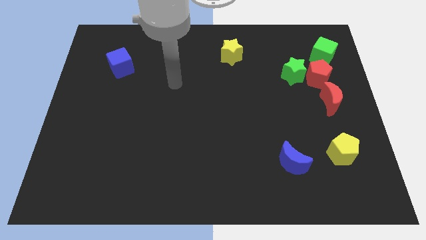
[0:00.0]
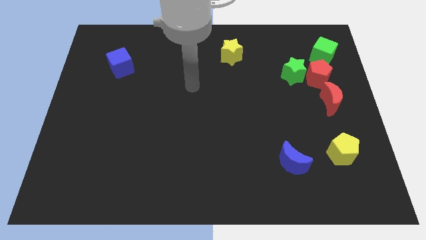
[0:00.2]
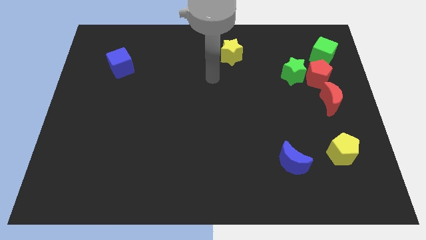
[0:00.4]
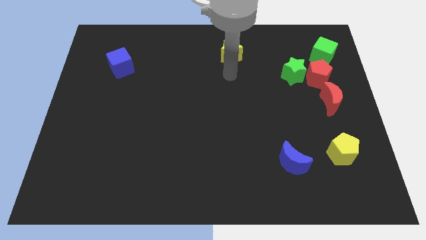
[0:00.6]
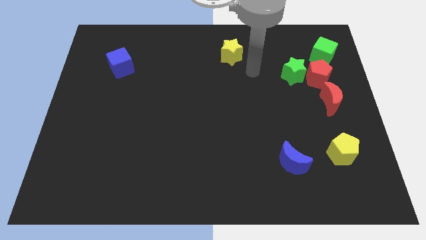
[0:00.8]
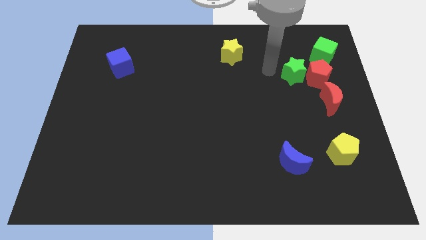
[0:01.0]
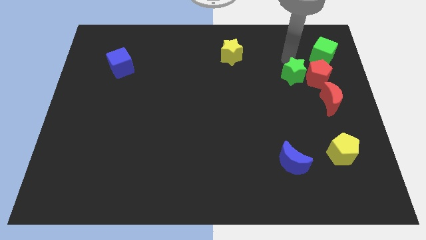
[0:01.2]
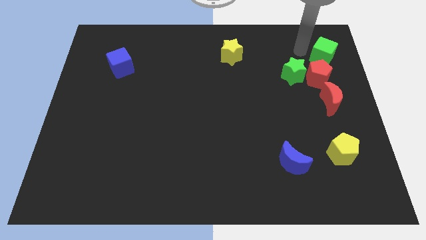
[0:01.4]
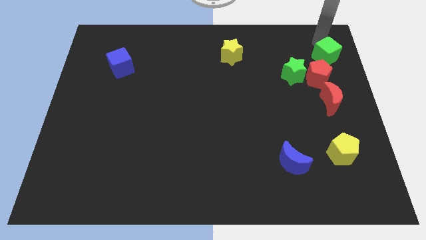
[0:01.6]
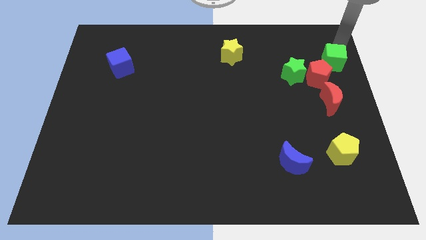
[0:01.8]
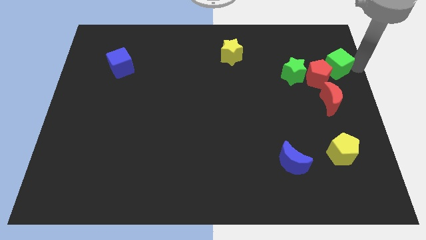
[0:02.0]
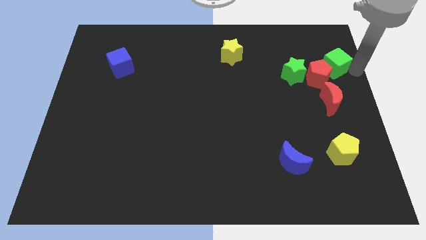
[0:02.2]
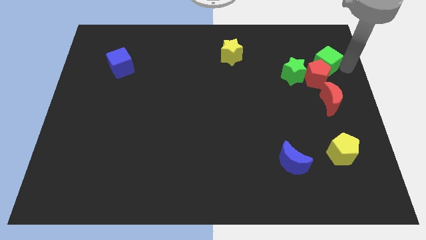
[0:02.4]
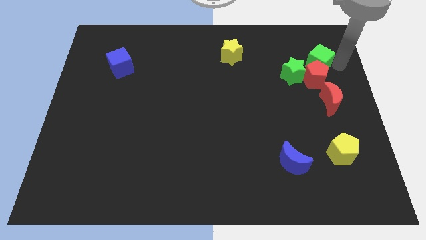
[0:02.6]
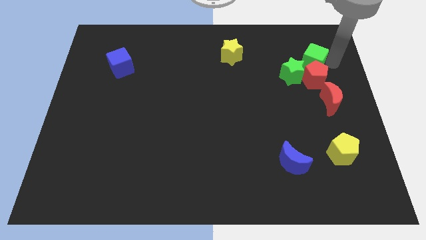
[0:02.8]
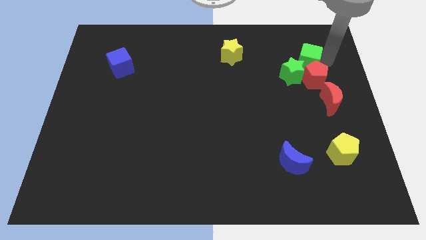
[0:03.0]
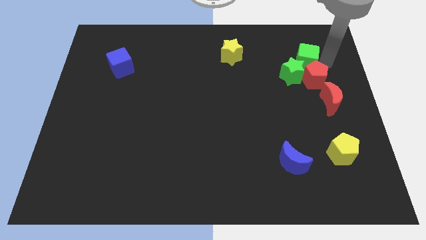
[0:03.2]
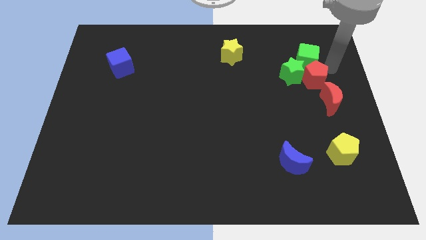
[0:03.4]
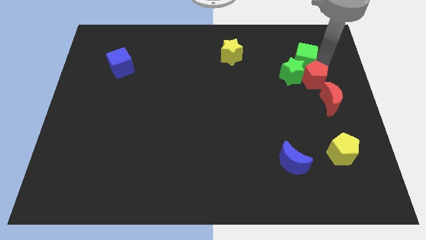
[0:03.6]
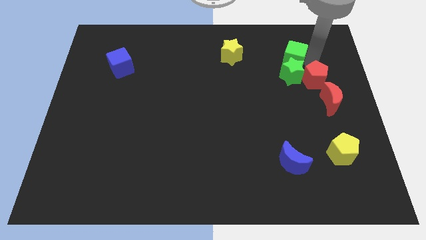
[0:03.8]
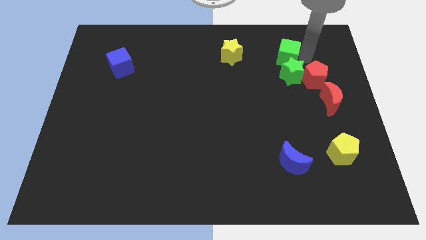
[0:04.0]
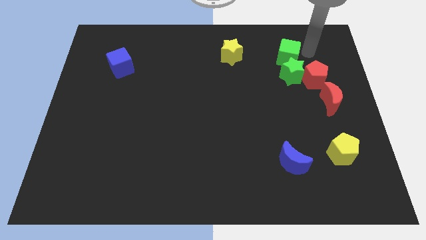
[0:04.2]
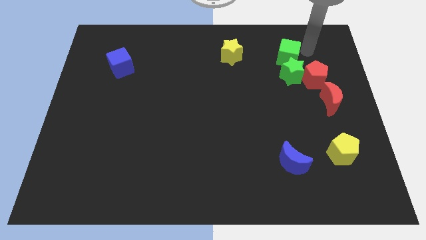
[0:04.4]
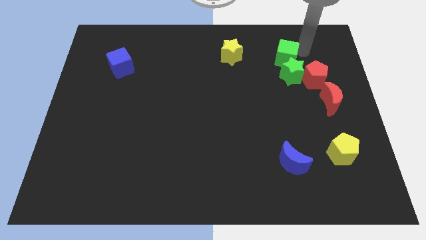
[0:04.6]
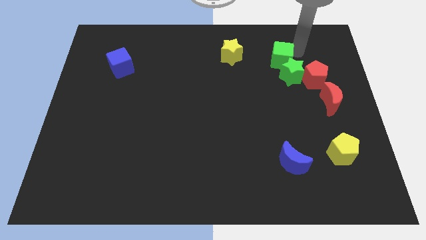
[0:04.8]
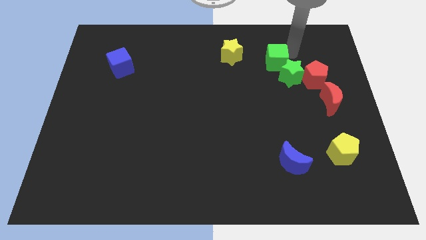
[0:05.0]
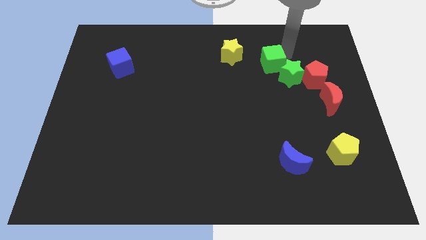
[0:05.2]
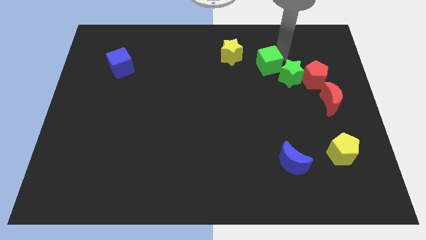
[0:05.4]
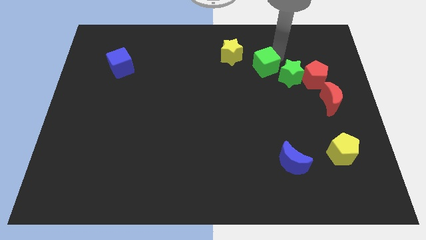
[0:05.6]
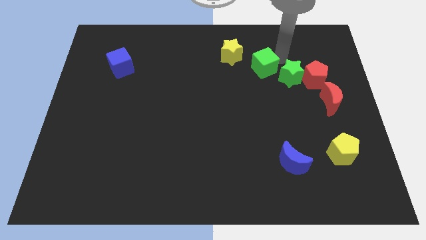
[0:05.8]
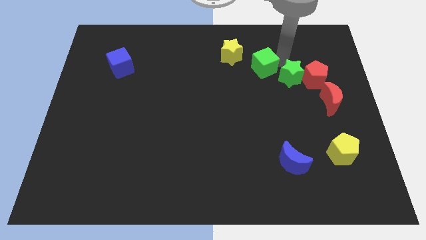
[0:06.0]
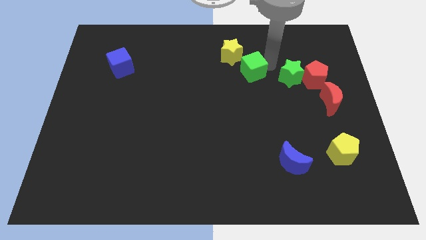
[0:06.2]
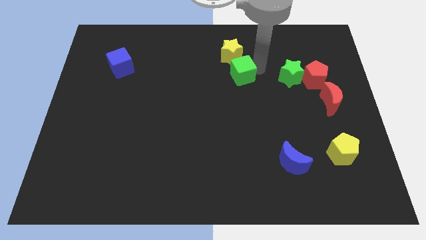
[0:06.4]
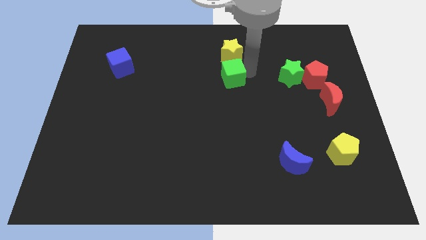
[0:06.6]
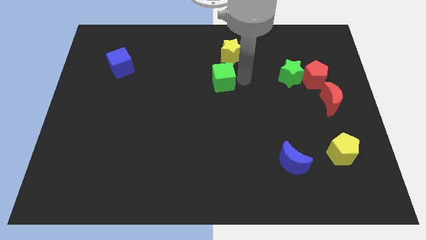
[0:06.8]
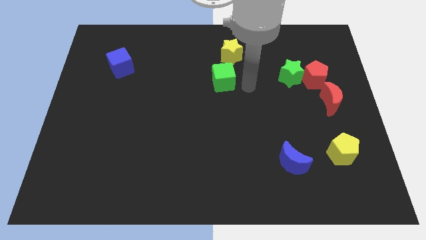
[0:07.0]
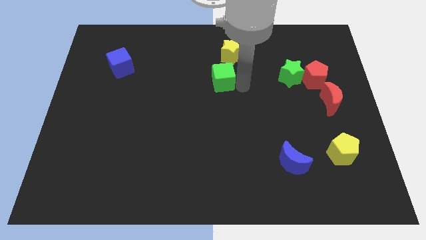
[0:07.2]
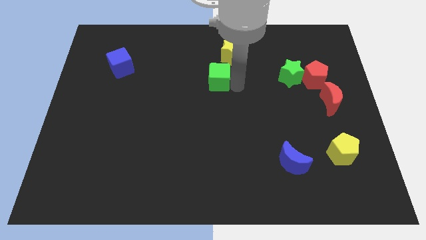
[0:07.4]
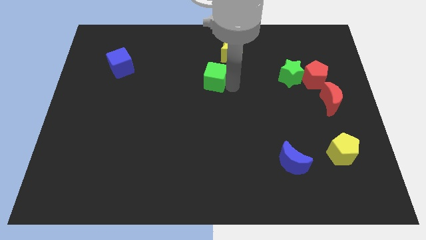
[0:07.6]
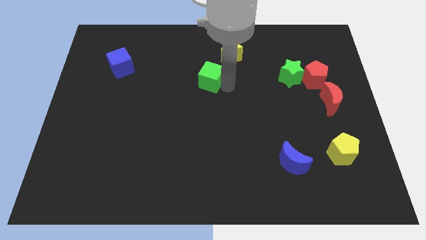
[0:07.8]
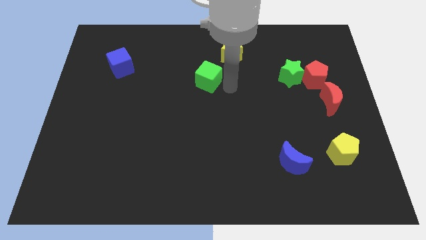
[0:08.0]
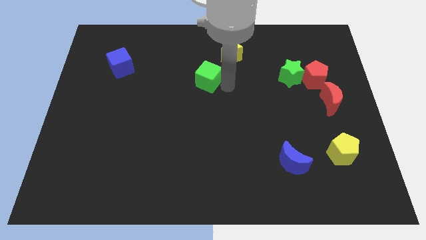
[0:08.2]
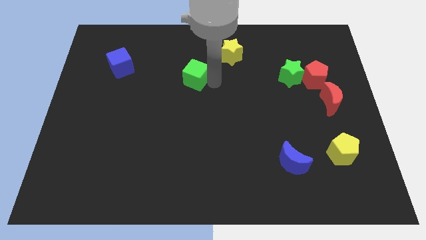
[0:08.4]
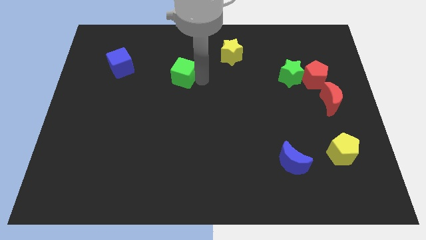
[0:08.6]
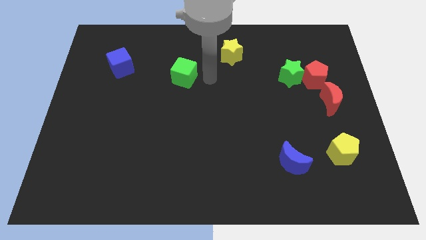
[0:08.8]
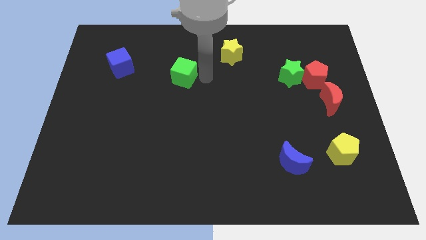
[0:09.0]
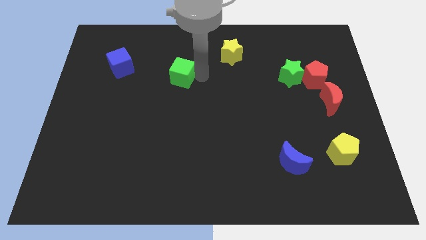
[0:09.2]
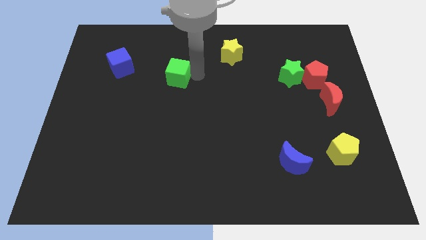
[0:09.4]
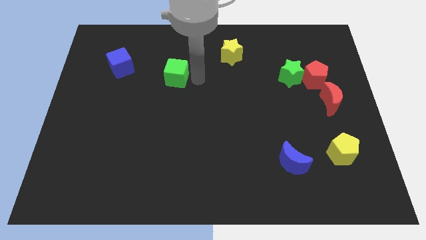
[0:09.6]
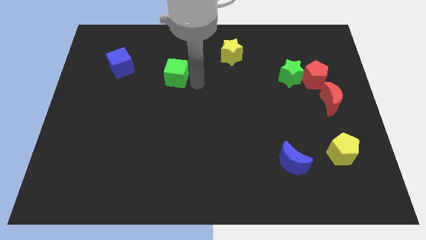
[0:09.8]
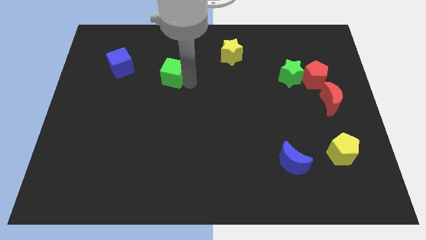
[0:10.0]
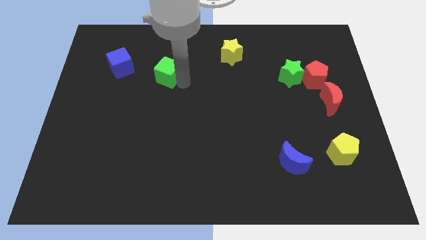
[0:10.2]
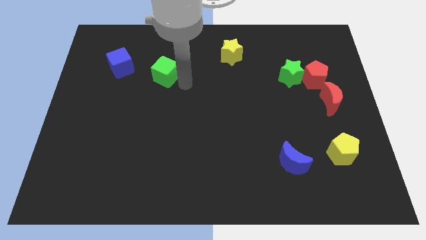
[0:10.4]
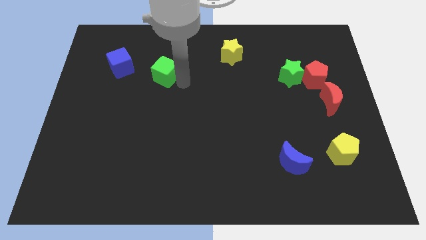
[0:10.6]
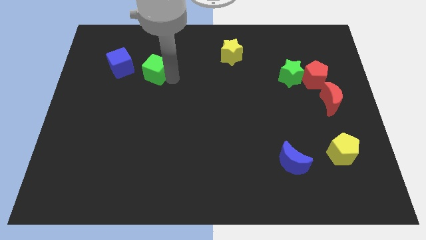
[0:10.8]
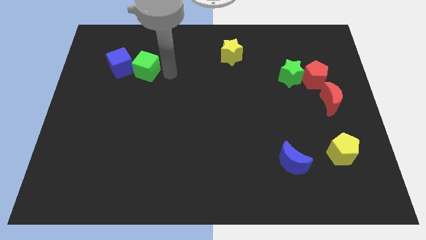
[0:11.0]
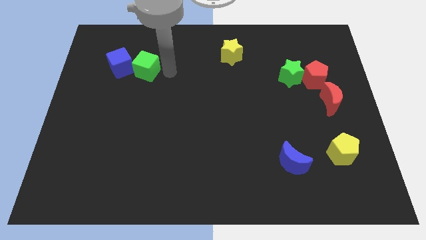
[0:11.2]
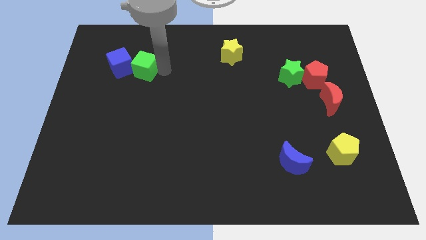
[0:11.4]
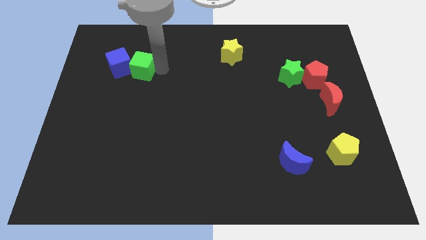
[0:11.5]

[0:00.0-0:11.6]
put the green cube close to the blue cube

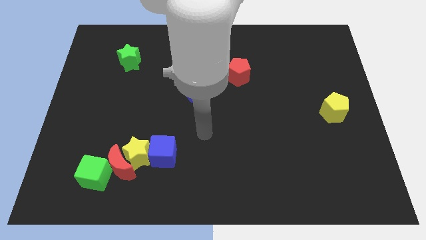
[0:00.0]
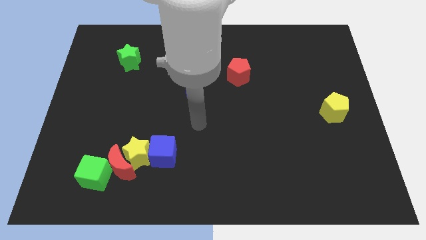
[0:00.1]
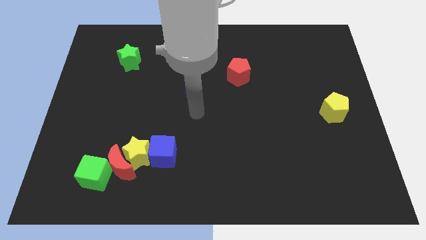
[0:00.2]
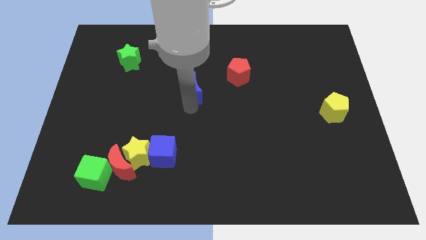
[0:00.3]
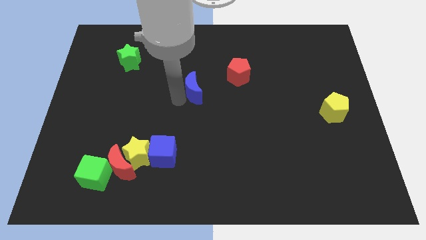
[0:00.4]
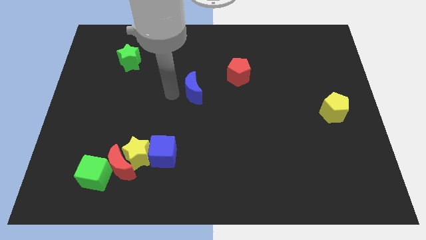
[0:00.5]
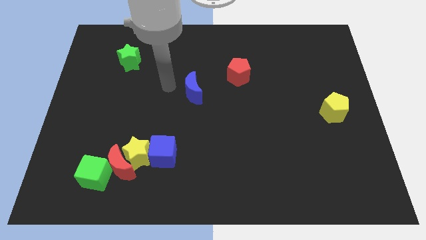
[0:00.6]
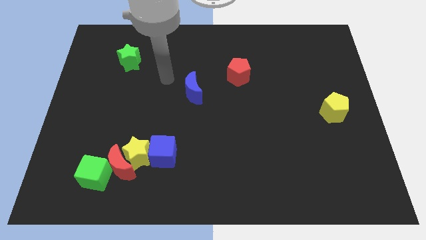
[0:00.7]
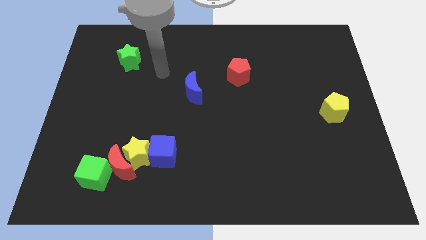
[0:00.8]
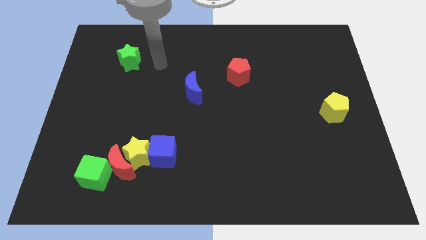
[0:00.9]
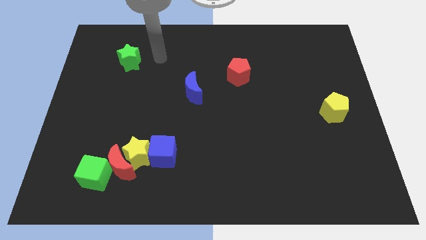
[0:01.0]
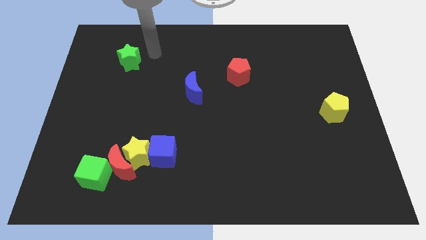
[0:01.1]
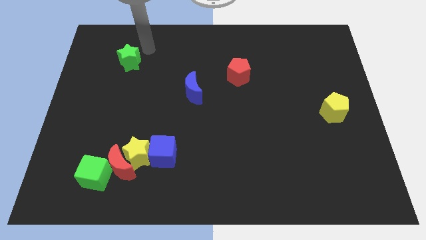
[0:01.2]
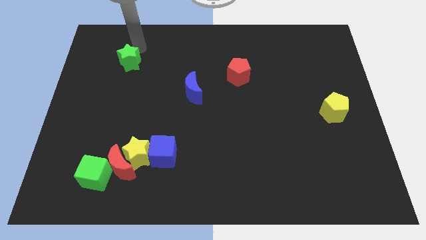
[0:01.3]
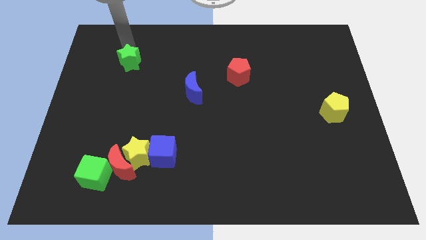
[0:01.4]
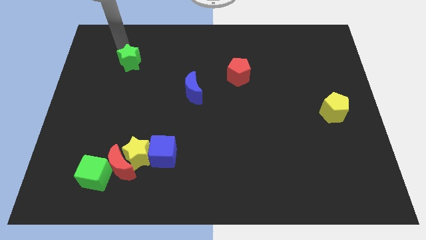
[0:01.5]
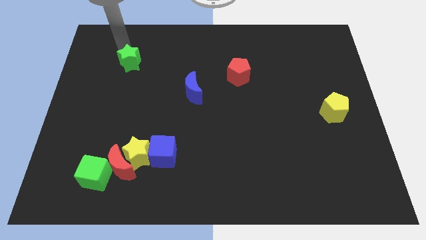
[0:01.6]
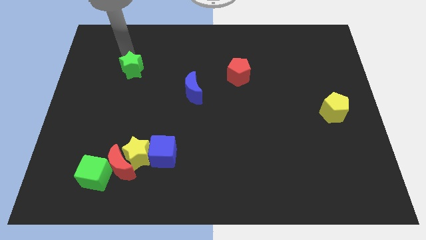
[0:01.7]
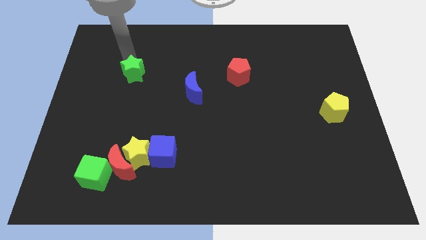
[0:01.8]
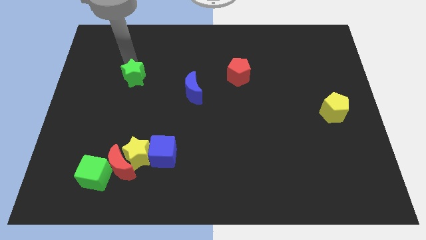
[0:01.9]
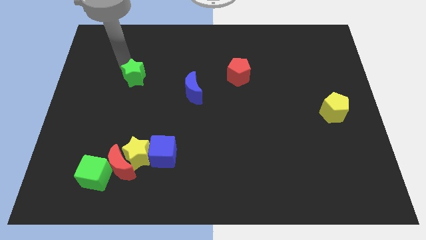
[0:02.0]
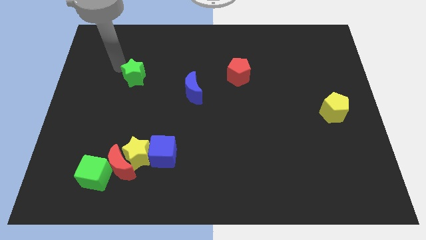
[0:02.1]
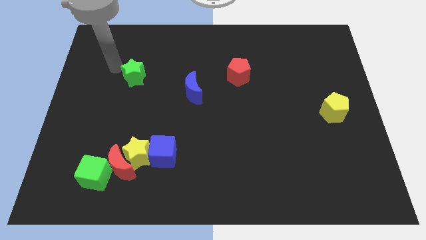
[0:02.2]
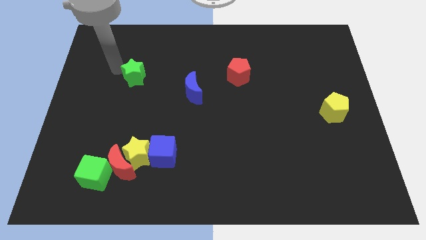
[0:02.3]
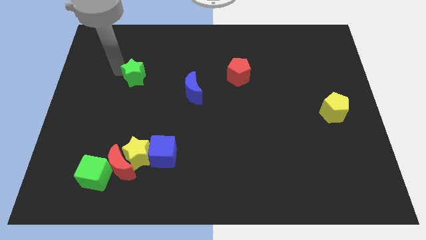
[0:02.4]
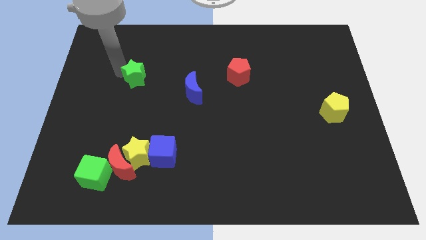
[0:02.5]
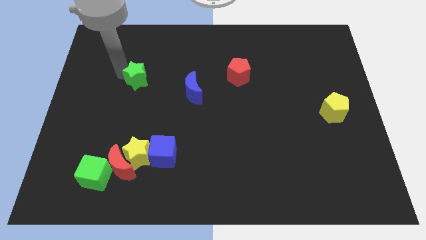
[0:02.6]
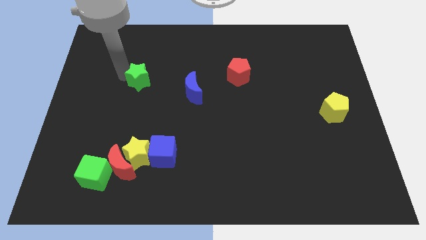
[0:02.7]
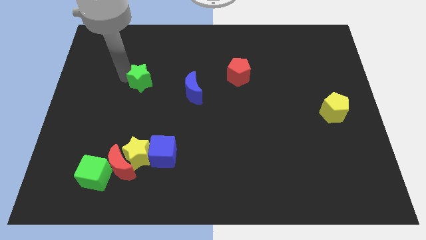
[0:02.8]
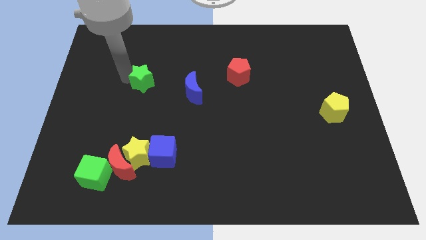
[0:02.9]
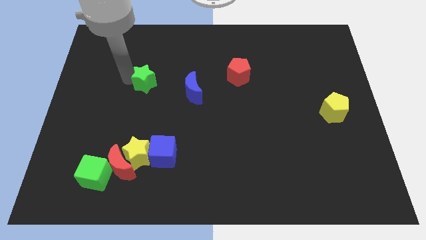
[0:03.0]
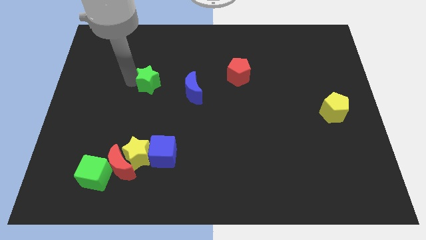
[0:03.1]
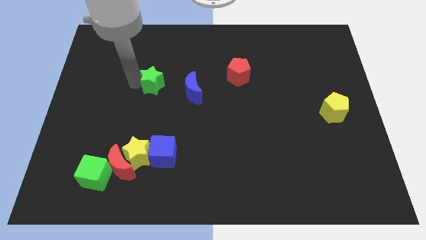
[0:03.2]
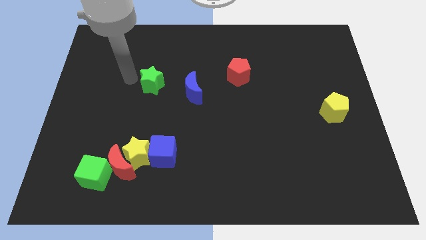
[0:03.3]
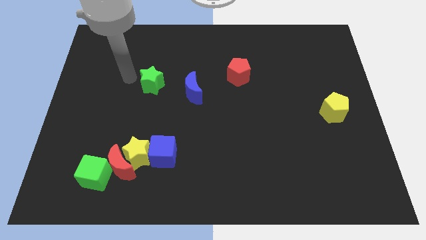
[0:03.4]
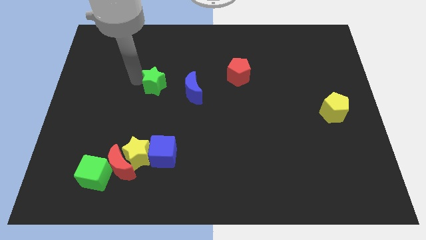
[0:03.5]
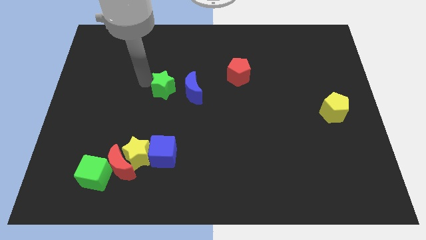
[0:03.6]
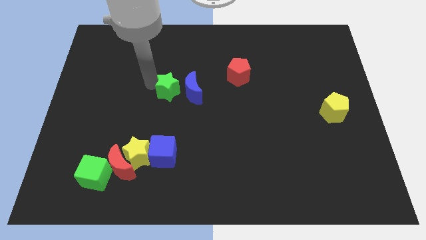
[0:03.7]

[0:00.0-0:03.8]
push the green star close to the blue moon
